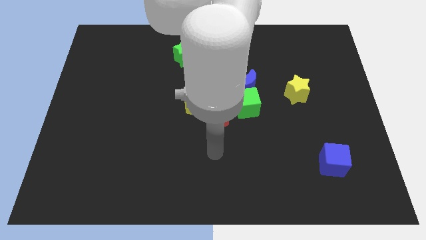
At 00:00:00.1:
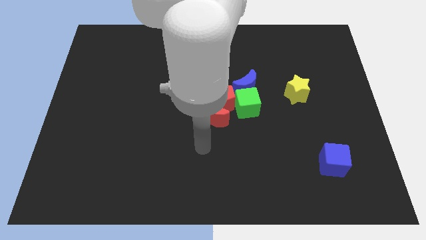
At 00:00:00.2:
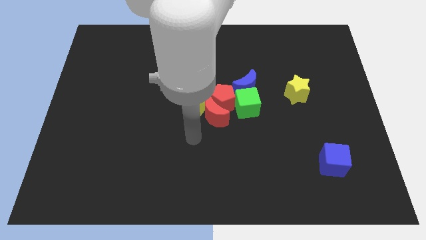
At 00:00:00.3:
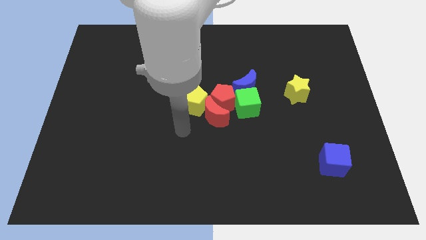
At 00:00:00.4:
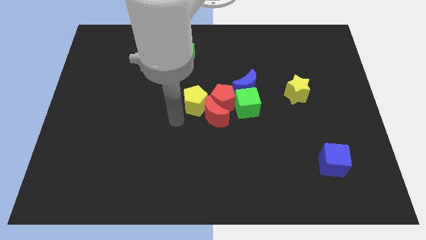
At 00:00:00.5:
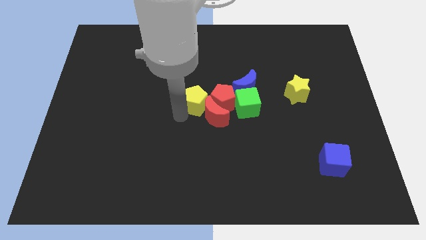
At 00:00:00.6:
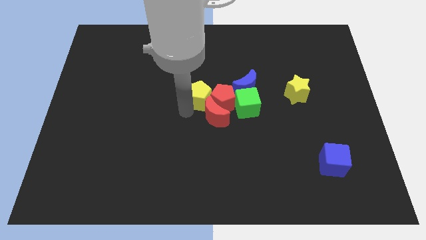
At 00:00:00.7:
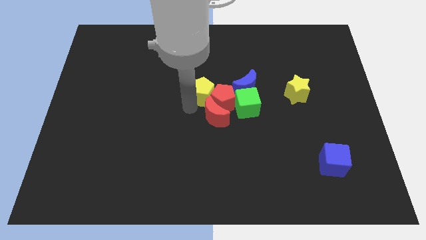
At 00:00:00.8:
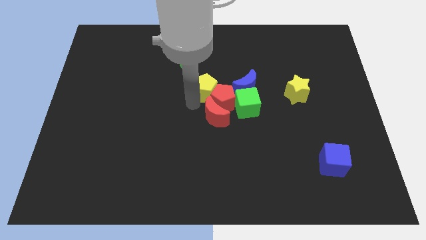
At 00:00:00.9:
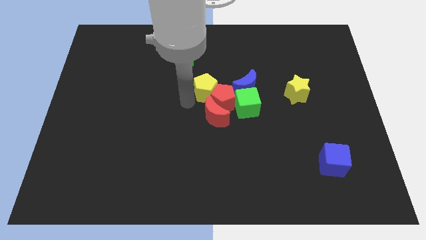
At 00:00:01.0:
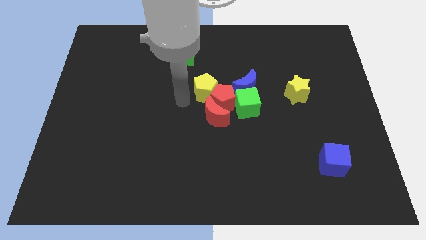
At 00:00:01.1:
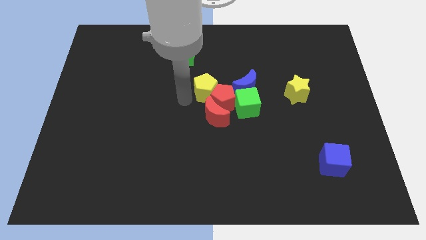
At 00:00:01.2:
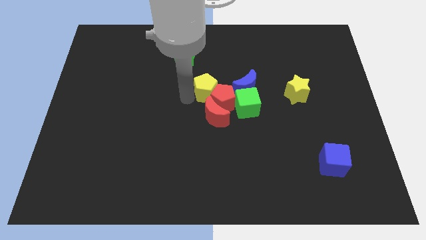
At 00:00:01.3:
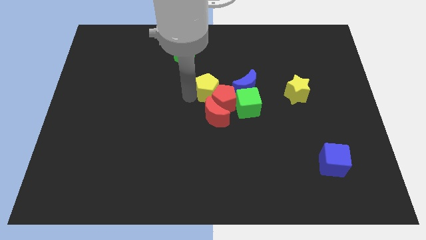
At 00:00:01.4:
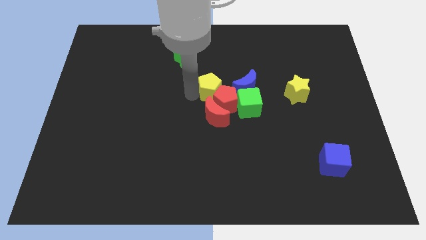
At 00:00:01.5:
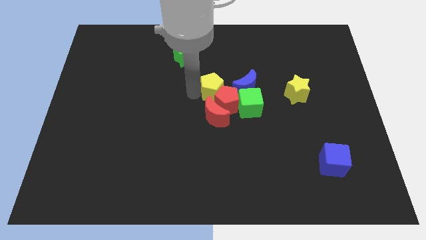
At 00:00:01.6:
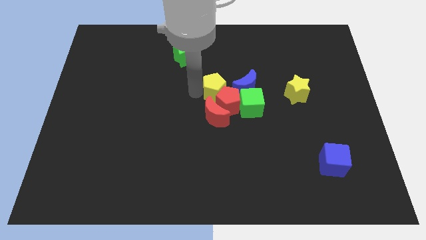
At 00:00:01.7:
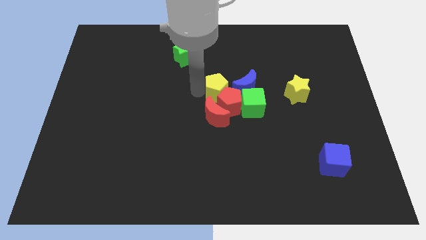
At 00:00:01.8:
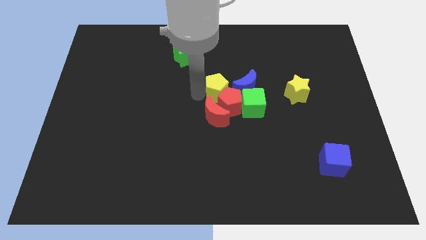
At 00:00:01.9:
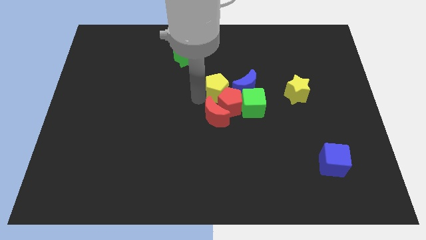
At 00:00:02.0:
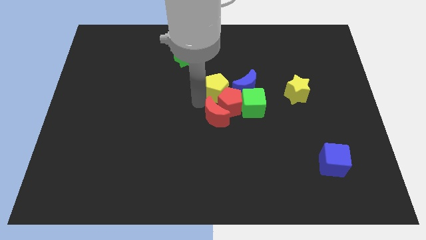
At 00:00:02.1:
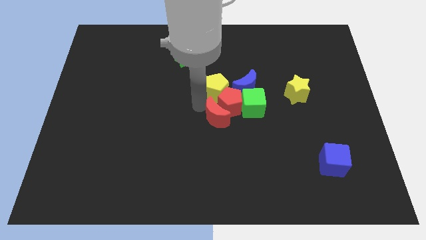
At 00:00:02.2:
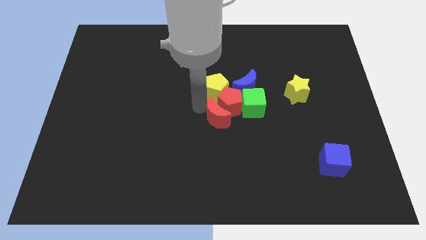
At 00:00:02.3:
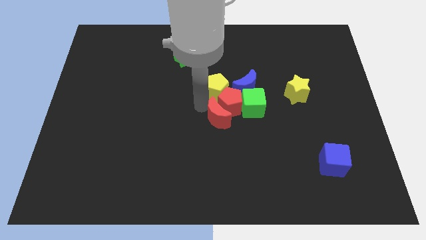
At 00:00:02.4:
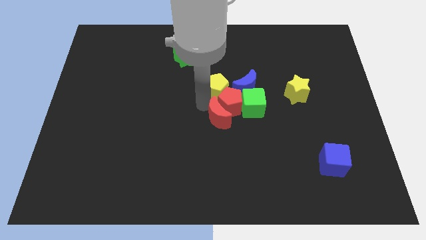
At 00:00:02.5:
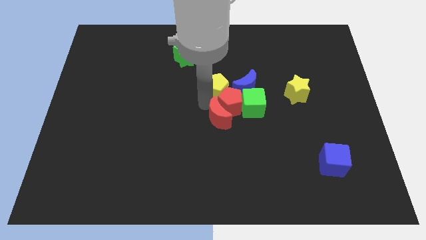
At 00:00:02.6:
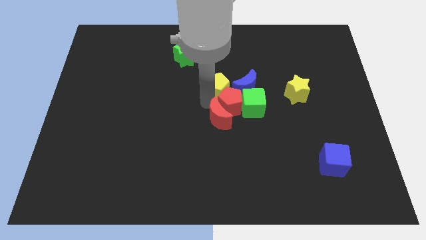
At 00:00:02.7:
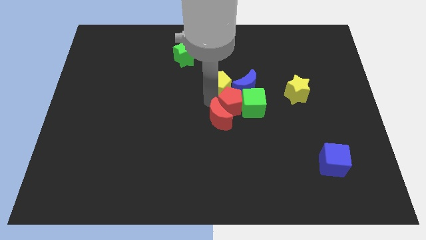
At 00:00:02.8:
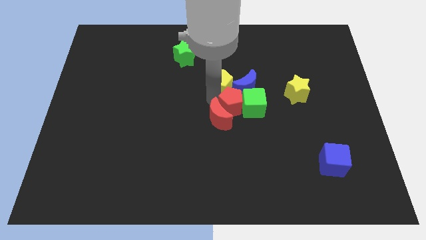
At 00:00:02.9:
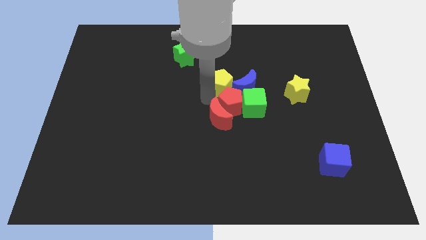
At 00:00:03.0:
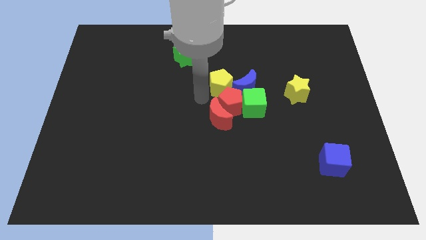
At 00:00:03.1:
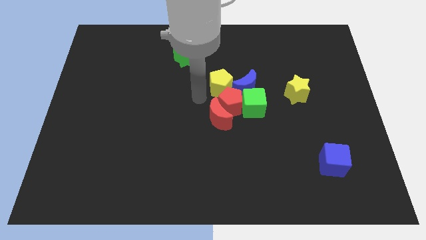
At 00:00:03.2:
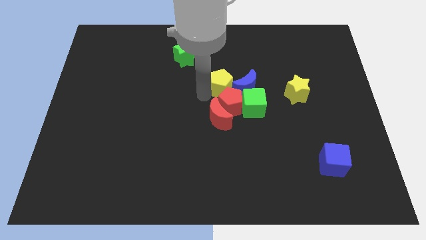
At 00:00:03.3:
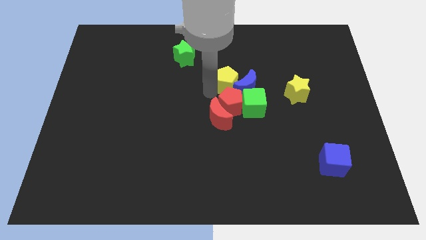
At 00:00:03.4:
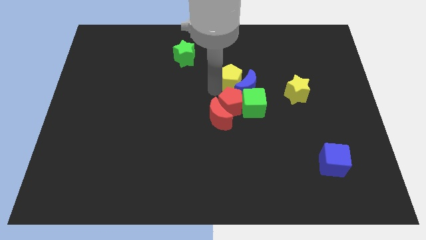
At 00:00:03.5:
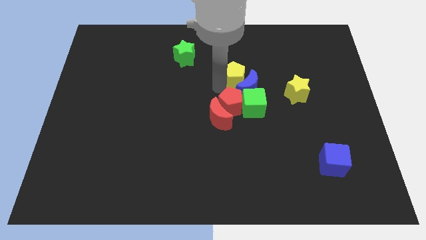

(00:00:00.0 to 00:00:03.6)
slightly slide the yellow pentagon right

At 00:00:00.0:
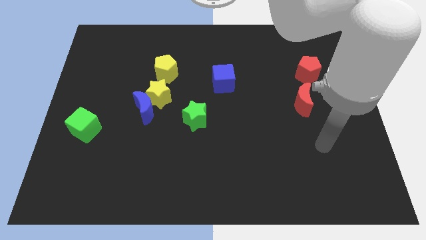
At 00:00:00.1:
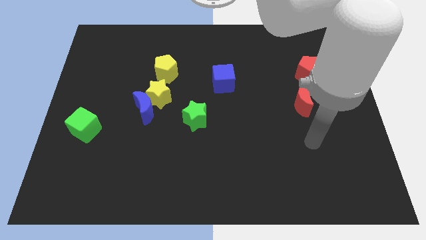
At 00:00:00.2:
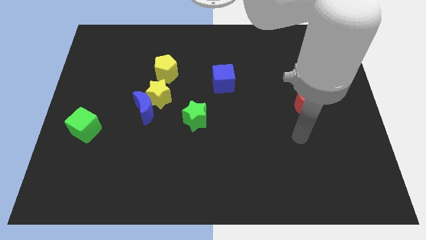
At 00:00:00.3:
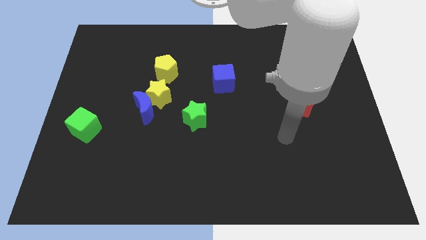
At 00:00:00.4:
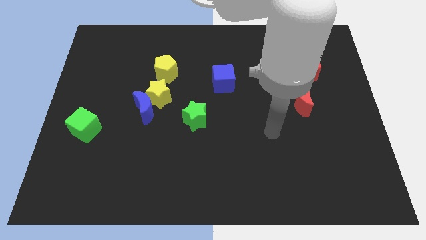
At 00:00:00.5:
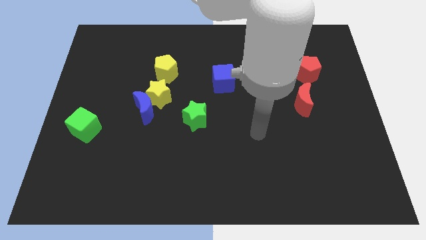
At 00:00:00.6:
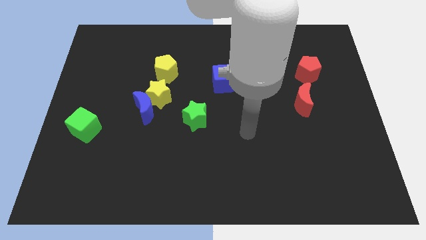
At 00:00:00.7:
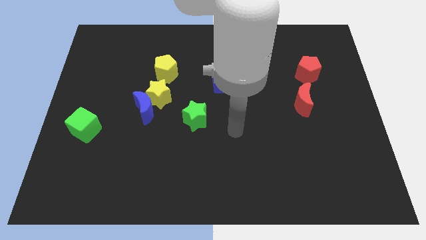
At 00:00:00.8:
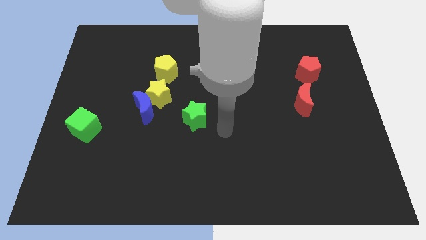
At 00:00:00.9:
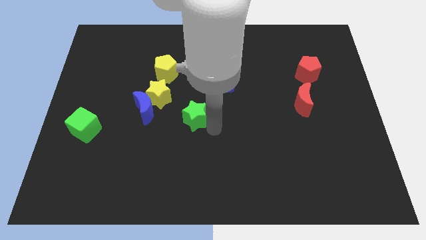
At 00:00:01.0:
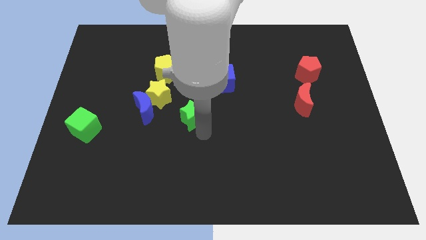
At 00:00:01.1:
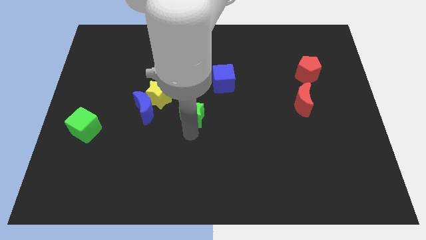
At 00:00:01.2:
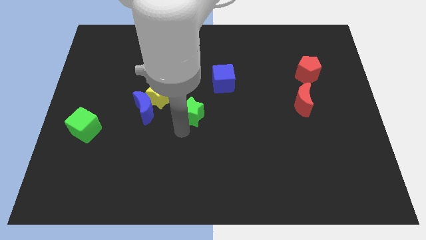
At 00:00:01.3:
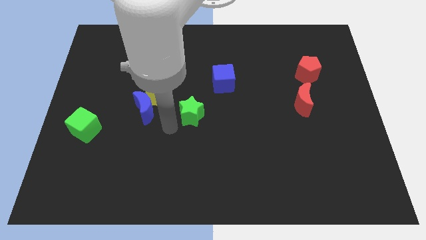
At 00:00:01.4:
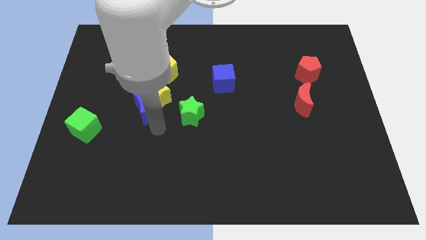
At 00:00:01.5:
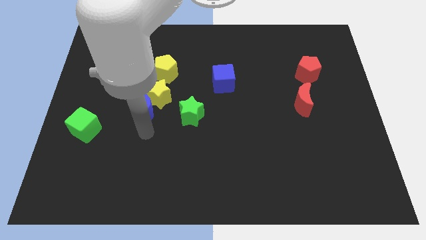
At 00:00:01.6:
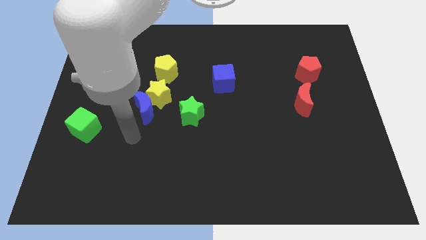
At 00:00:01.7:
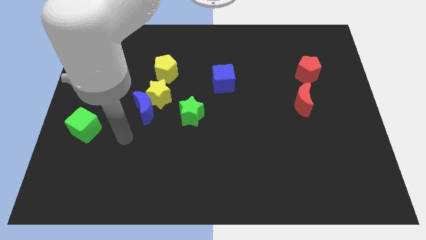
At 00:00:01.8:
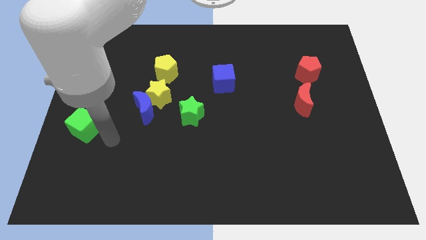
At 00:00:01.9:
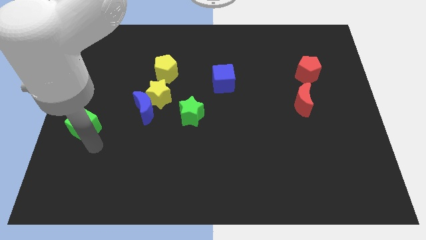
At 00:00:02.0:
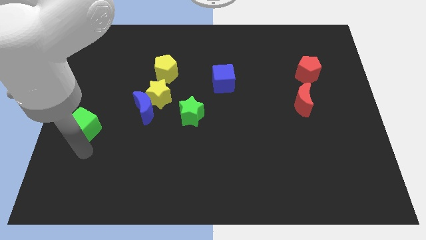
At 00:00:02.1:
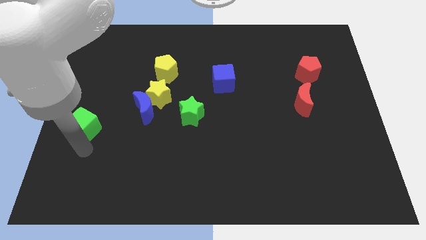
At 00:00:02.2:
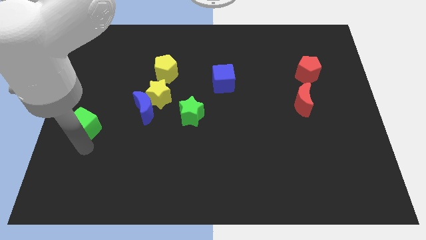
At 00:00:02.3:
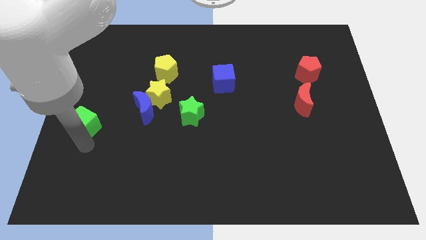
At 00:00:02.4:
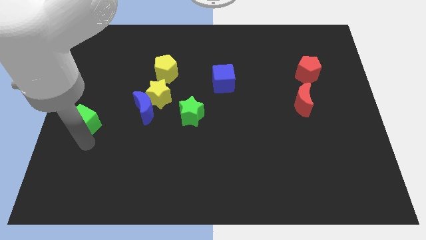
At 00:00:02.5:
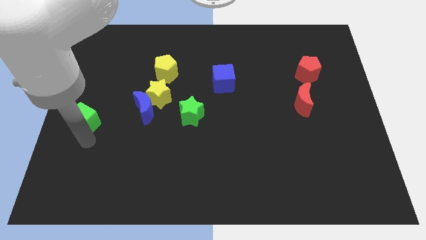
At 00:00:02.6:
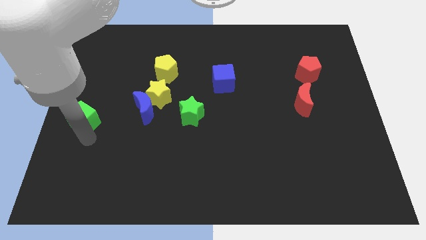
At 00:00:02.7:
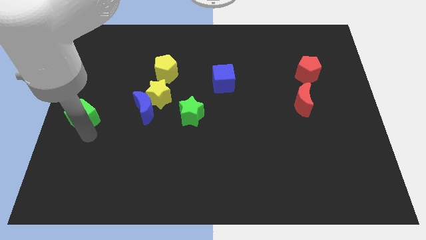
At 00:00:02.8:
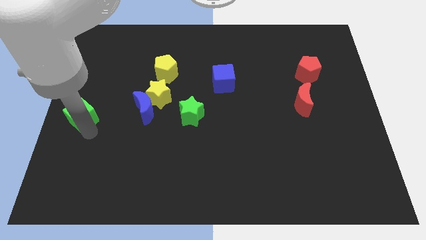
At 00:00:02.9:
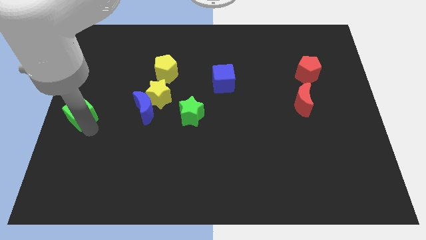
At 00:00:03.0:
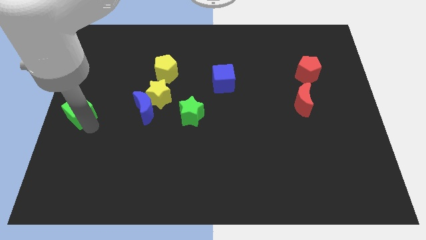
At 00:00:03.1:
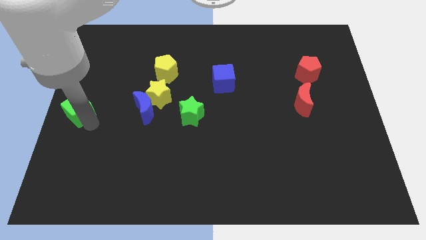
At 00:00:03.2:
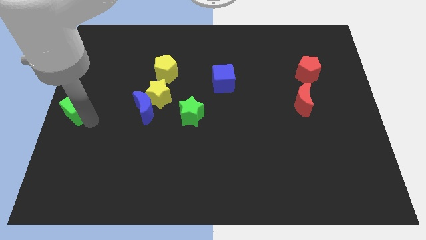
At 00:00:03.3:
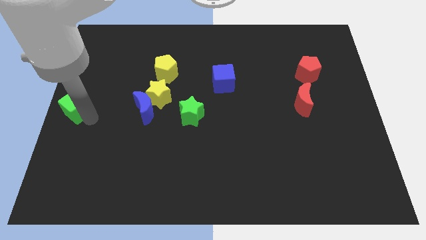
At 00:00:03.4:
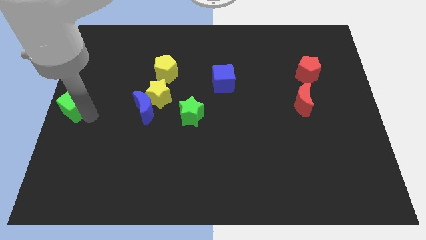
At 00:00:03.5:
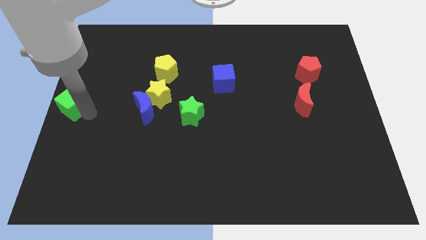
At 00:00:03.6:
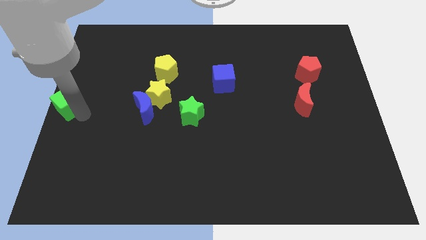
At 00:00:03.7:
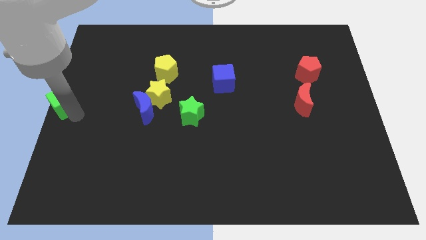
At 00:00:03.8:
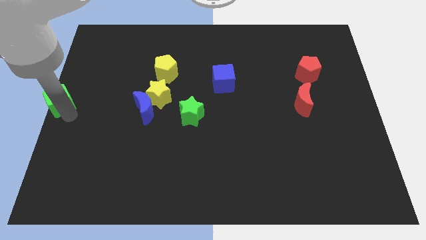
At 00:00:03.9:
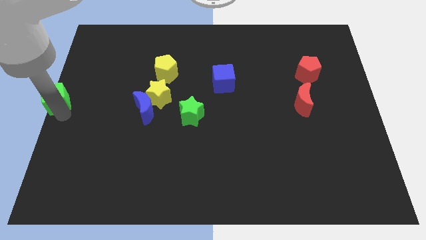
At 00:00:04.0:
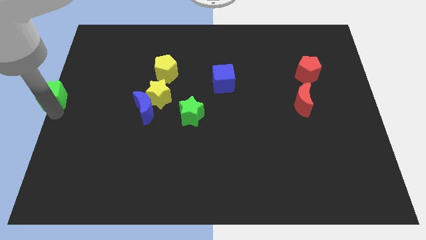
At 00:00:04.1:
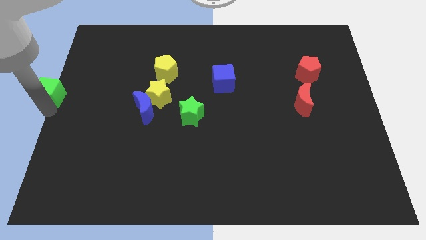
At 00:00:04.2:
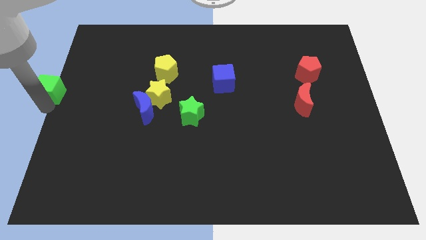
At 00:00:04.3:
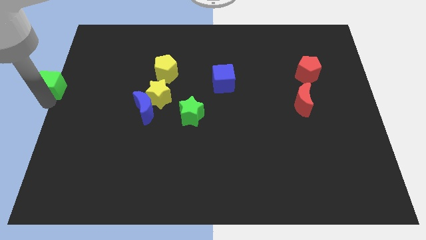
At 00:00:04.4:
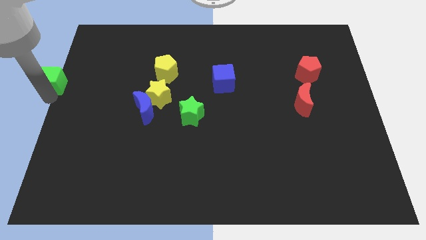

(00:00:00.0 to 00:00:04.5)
move the green cube up a little bit
